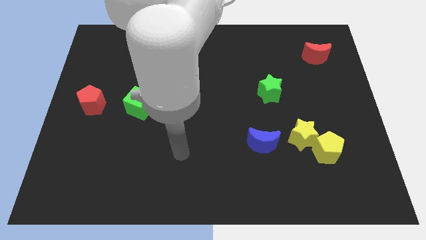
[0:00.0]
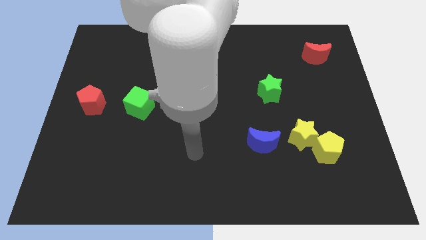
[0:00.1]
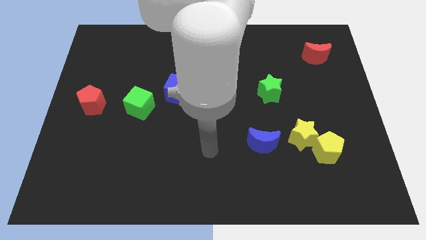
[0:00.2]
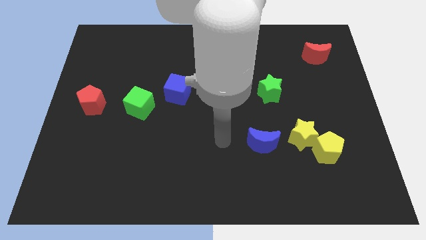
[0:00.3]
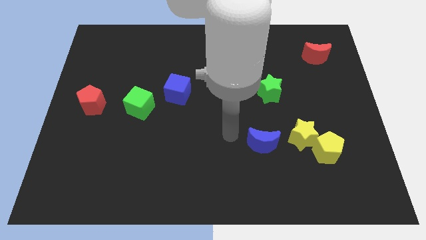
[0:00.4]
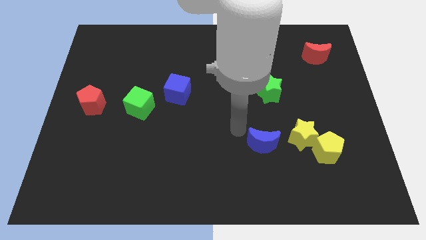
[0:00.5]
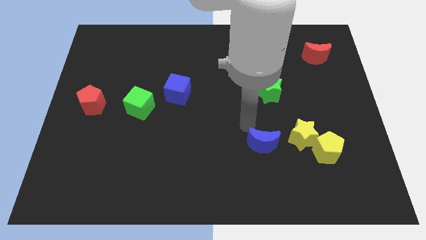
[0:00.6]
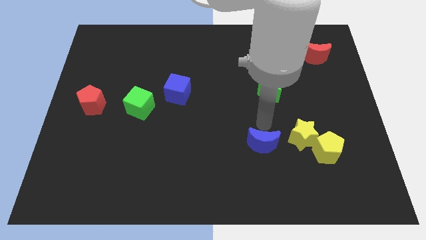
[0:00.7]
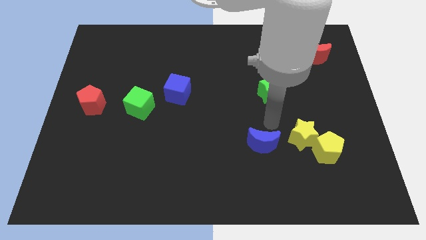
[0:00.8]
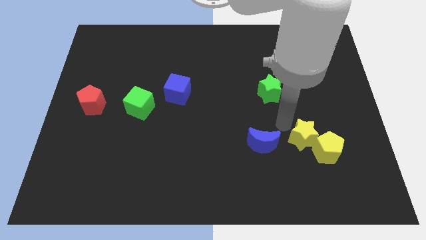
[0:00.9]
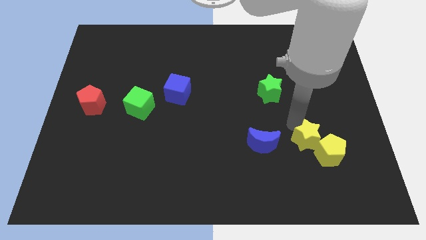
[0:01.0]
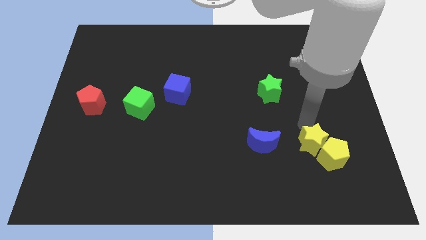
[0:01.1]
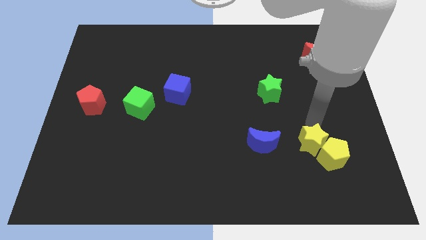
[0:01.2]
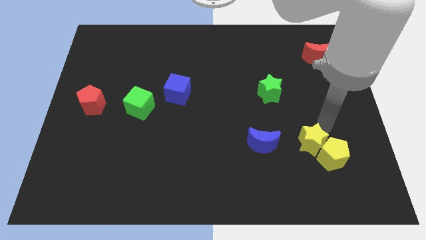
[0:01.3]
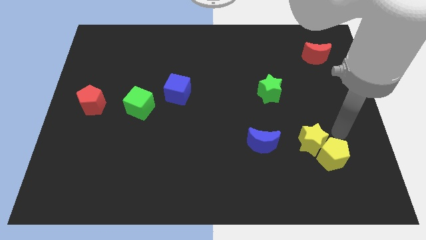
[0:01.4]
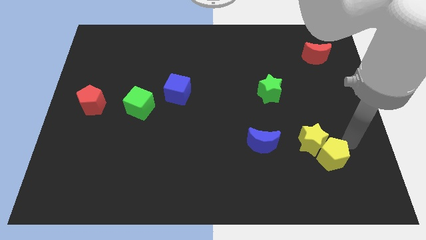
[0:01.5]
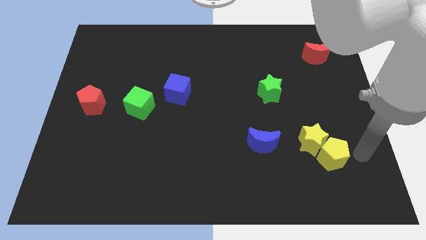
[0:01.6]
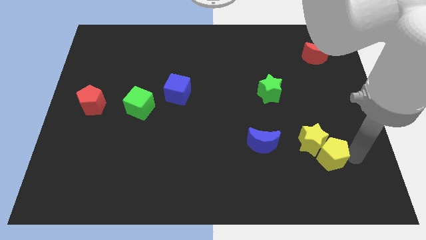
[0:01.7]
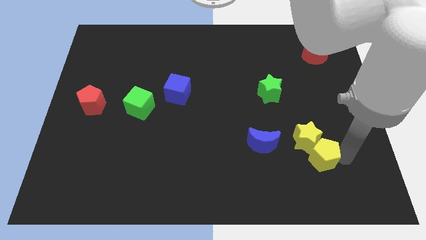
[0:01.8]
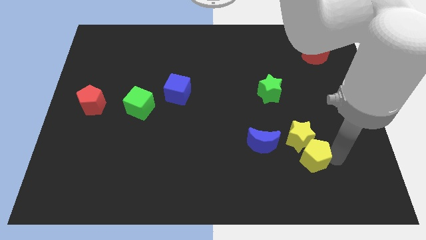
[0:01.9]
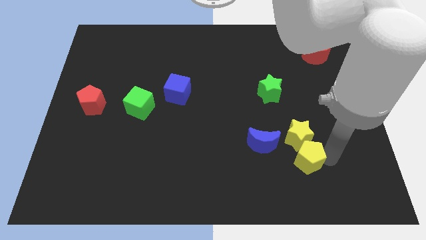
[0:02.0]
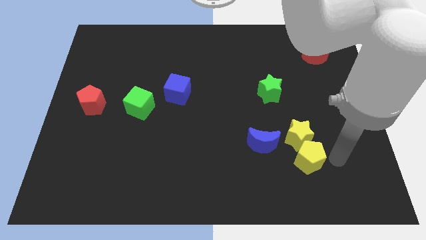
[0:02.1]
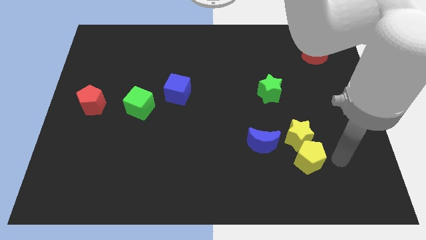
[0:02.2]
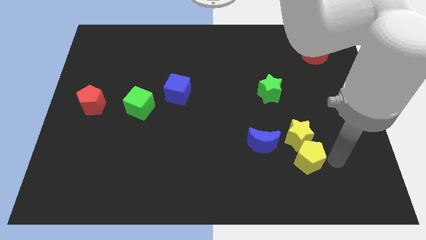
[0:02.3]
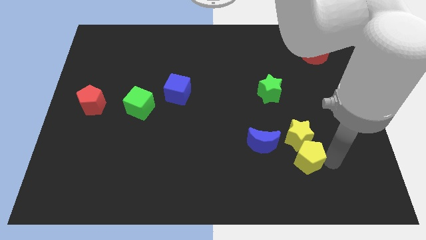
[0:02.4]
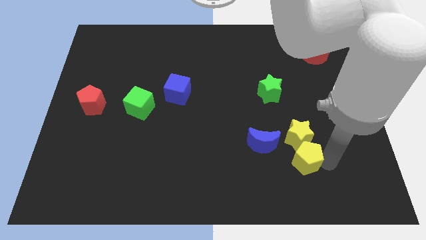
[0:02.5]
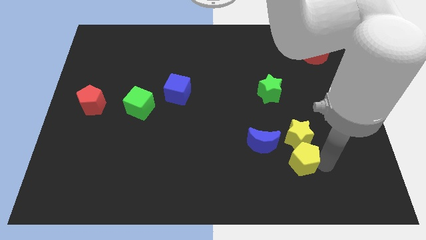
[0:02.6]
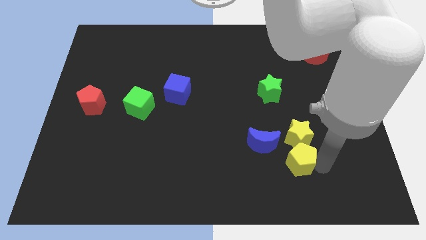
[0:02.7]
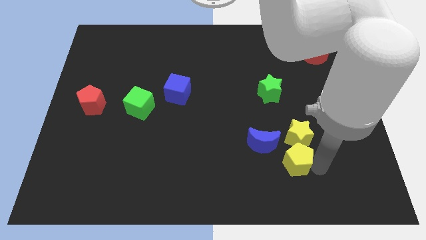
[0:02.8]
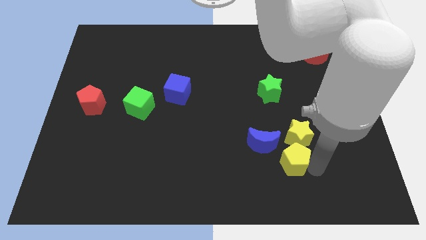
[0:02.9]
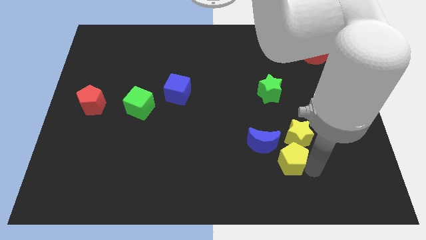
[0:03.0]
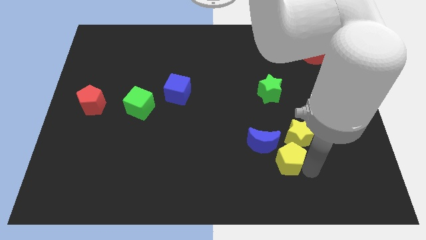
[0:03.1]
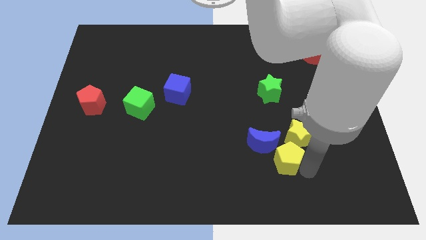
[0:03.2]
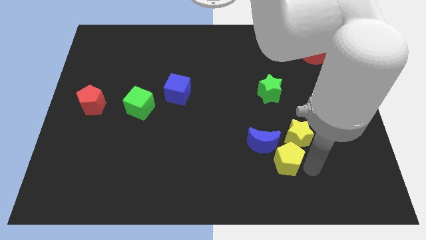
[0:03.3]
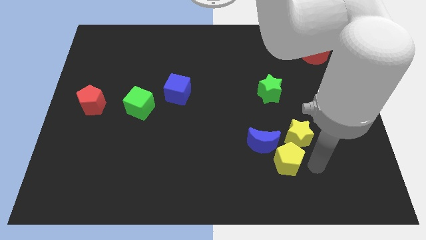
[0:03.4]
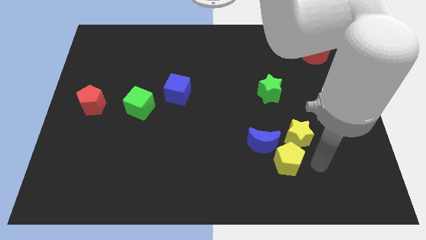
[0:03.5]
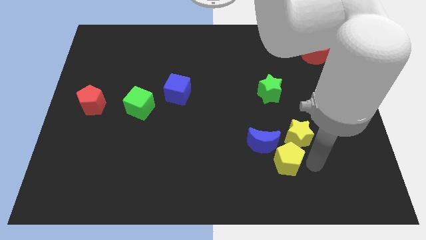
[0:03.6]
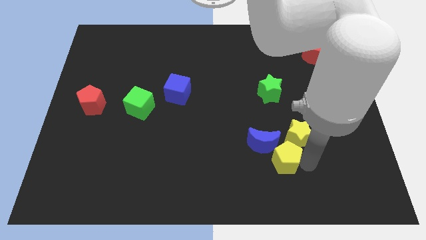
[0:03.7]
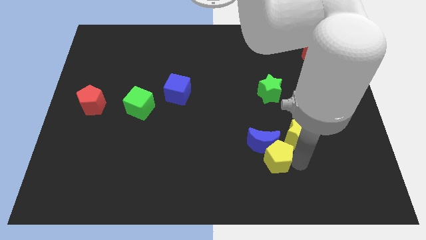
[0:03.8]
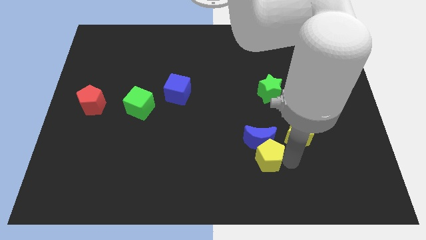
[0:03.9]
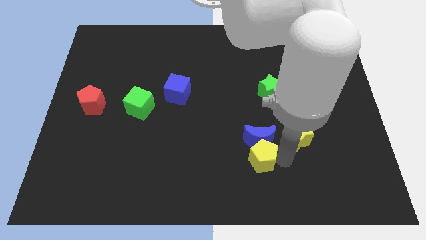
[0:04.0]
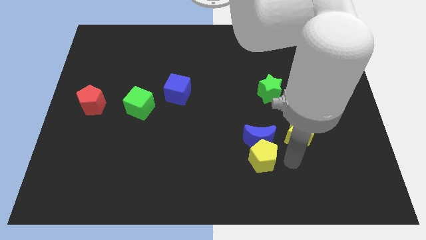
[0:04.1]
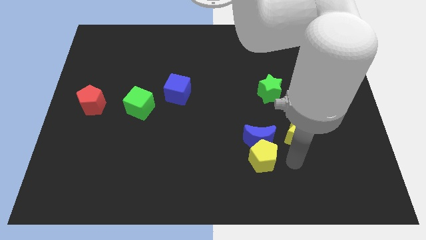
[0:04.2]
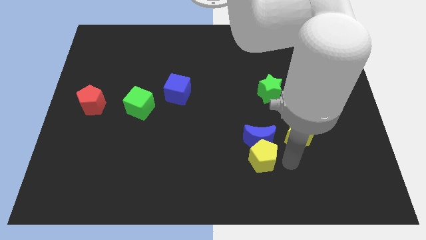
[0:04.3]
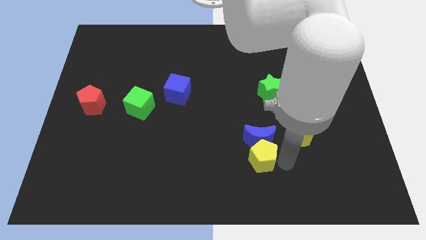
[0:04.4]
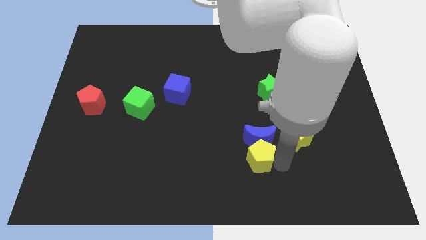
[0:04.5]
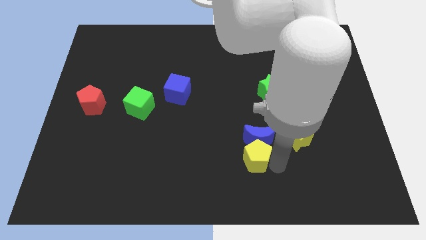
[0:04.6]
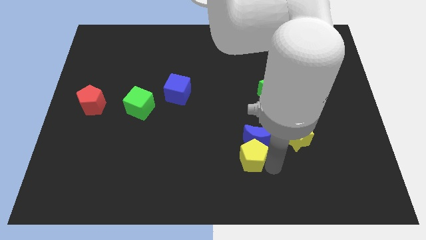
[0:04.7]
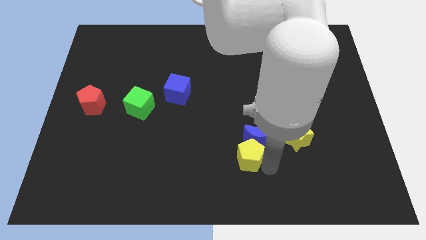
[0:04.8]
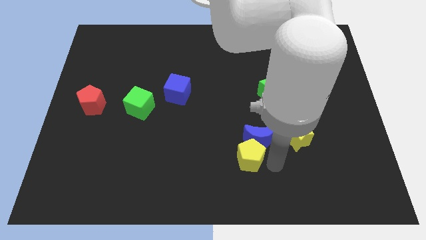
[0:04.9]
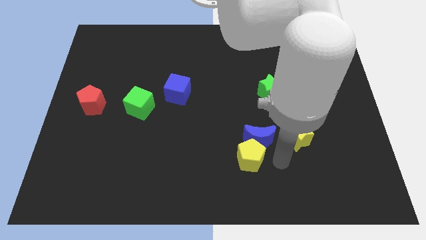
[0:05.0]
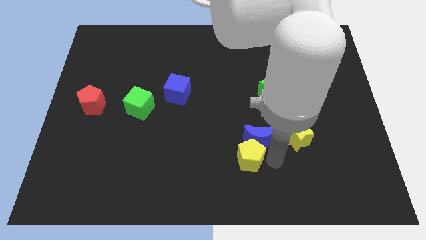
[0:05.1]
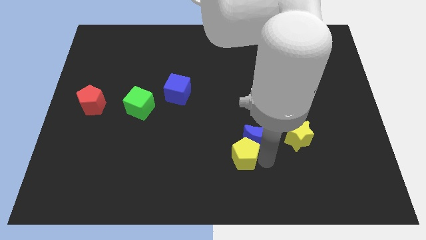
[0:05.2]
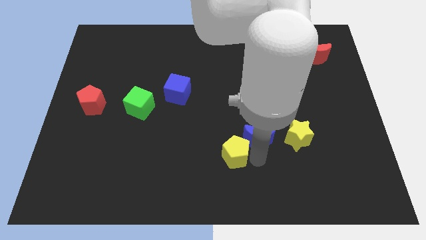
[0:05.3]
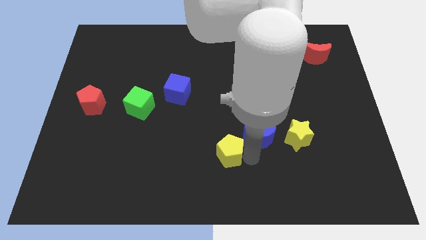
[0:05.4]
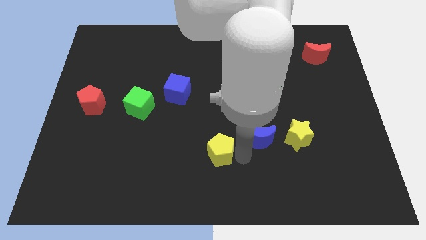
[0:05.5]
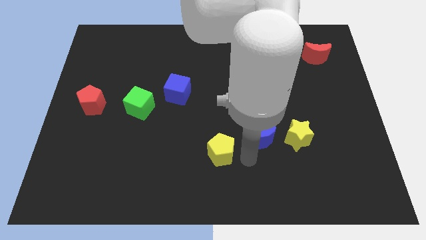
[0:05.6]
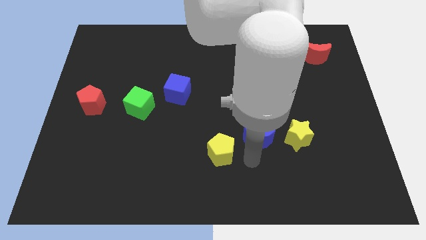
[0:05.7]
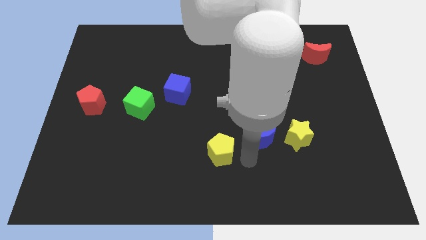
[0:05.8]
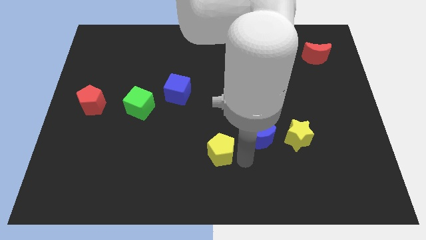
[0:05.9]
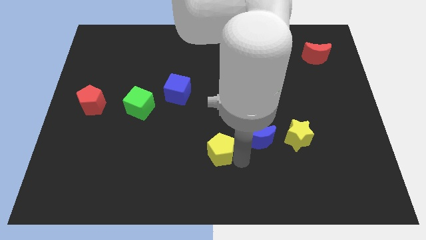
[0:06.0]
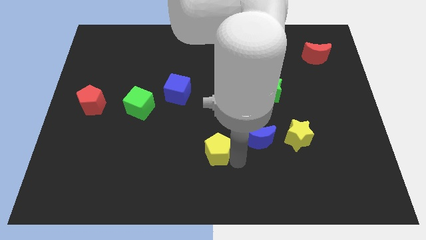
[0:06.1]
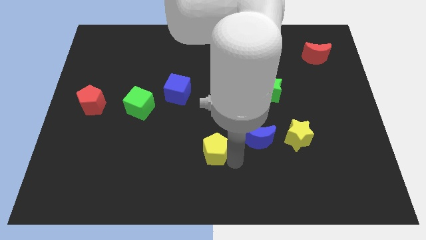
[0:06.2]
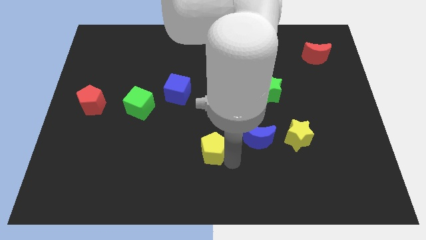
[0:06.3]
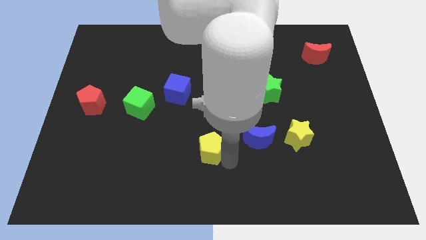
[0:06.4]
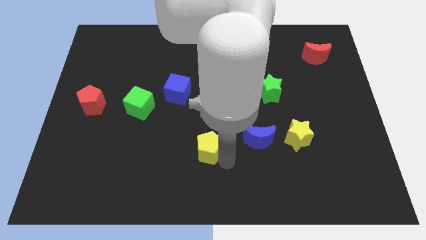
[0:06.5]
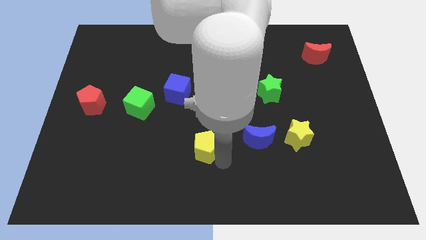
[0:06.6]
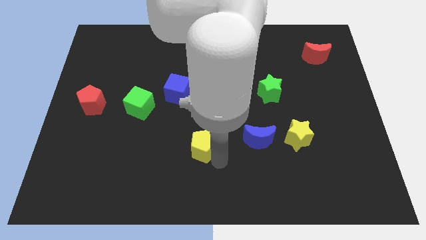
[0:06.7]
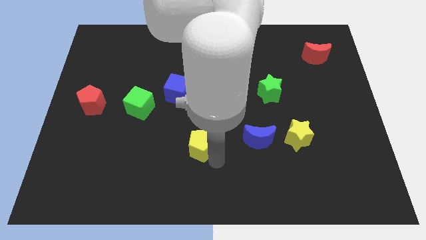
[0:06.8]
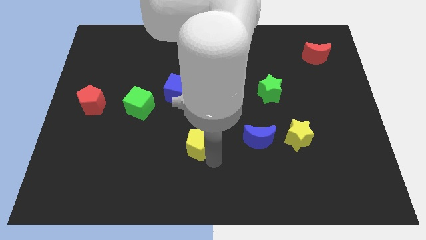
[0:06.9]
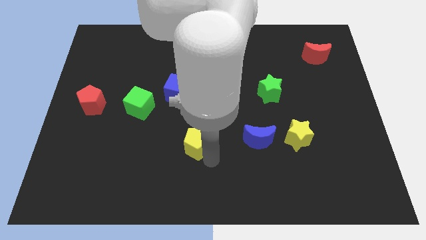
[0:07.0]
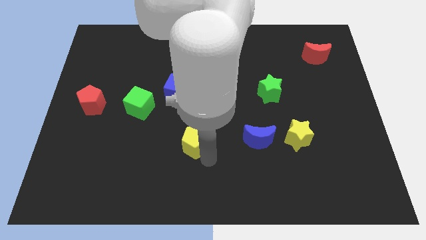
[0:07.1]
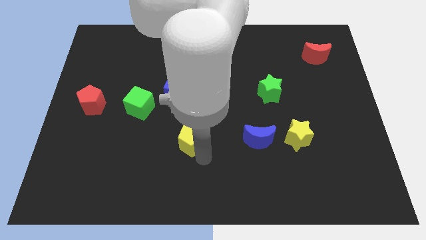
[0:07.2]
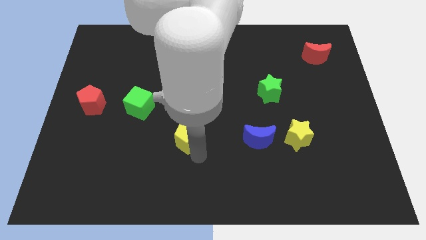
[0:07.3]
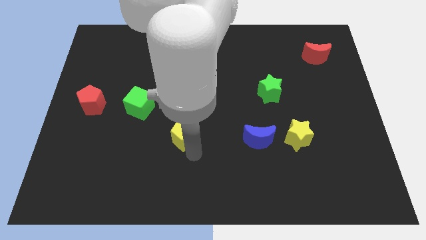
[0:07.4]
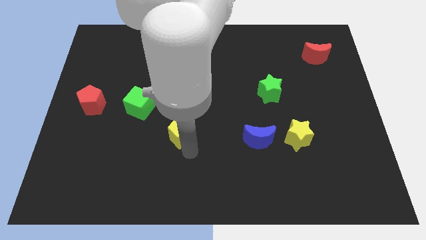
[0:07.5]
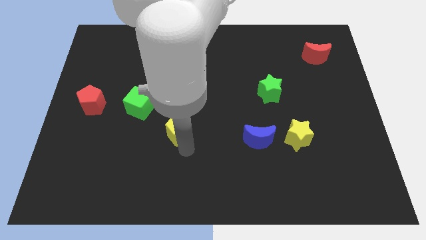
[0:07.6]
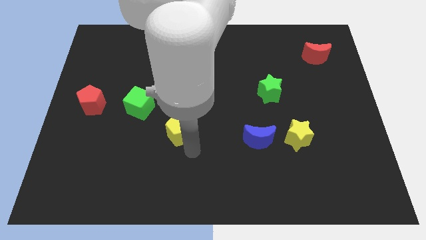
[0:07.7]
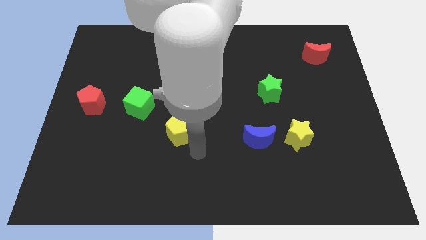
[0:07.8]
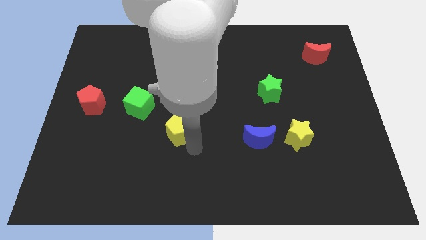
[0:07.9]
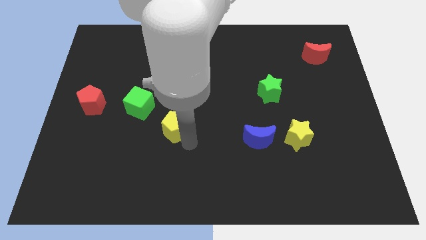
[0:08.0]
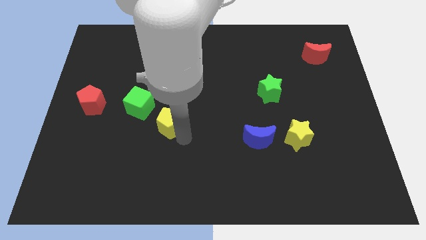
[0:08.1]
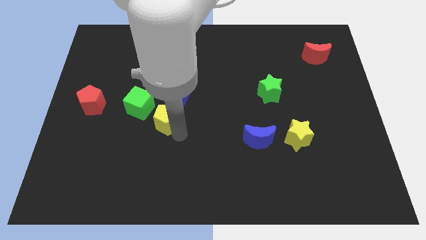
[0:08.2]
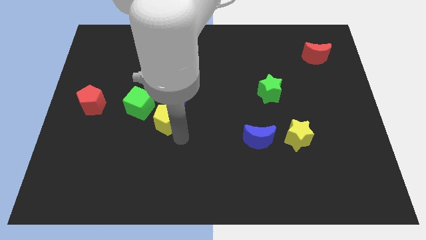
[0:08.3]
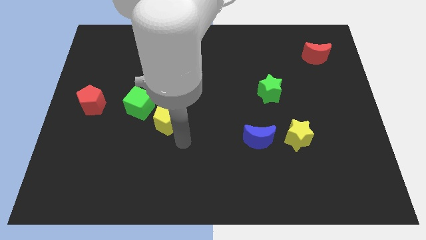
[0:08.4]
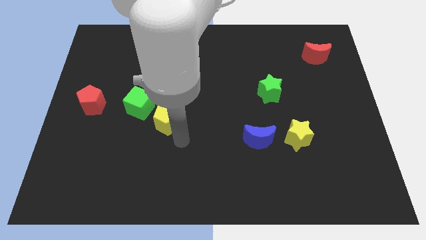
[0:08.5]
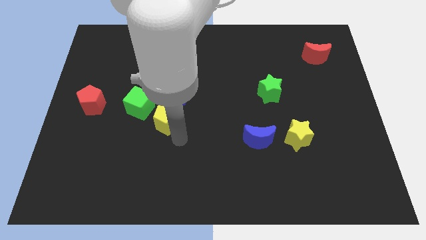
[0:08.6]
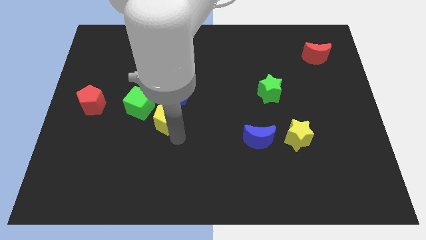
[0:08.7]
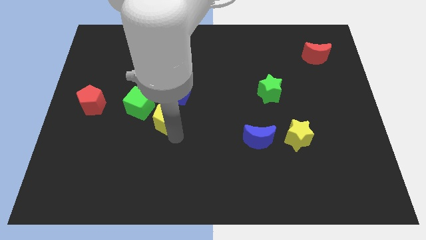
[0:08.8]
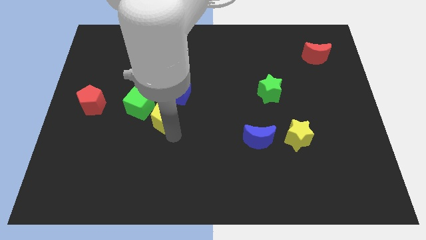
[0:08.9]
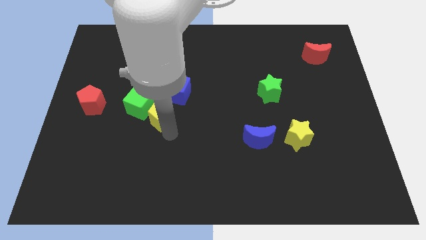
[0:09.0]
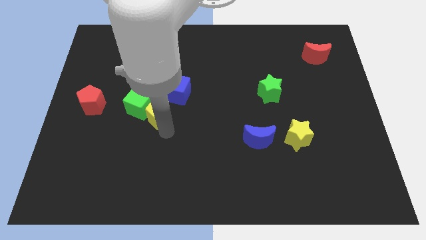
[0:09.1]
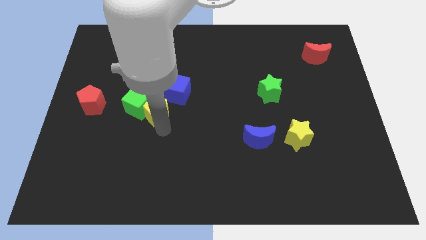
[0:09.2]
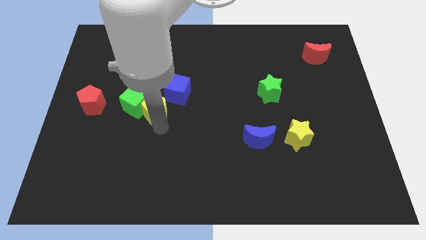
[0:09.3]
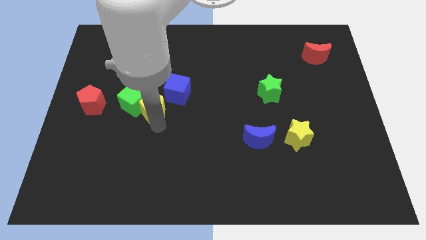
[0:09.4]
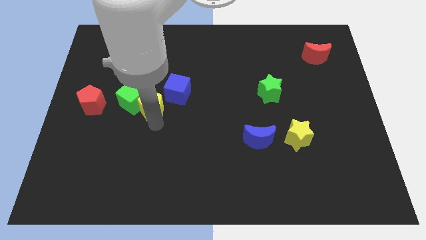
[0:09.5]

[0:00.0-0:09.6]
put the yellow pentagon just left of the blue cube
